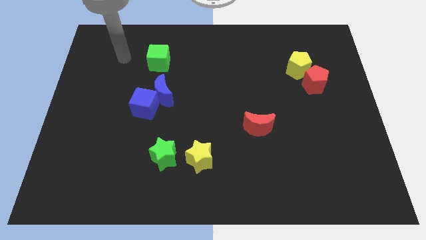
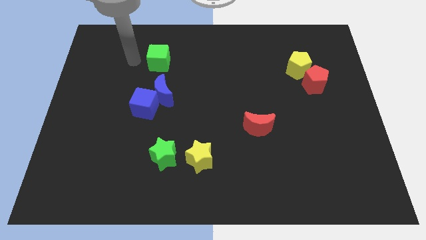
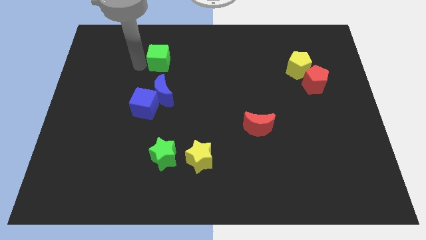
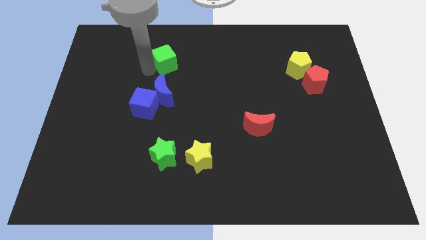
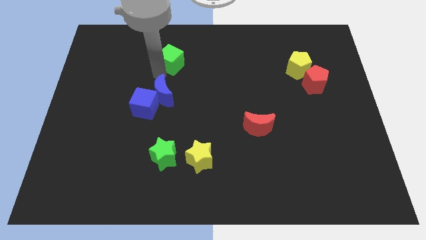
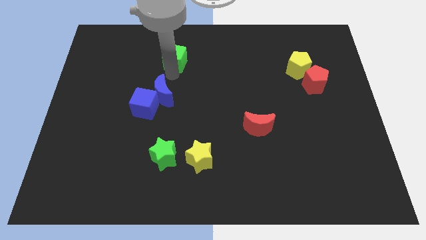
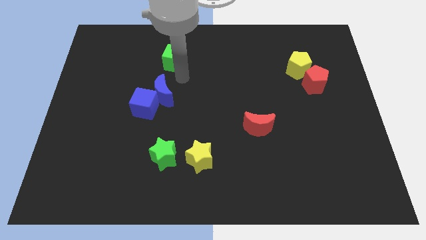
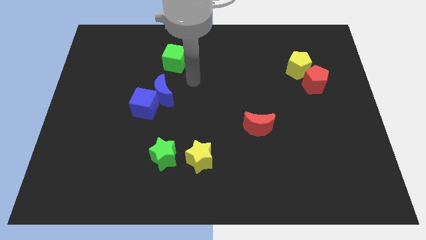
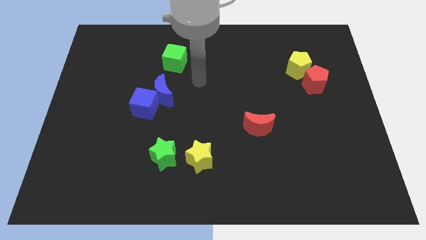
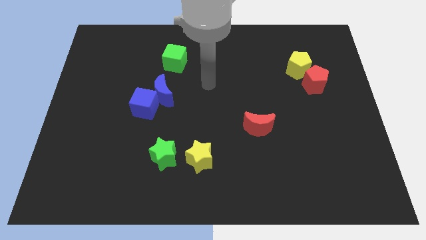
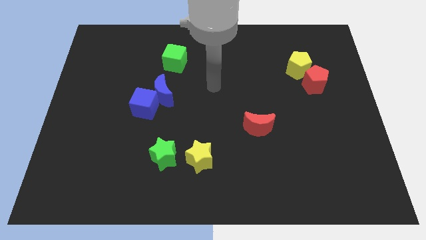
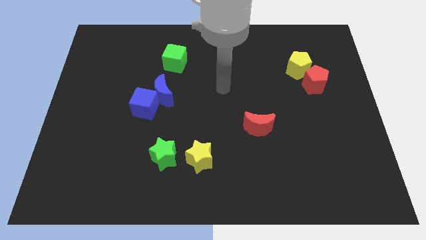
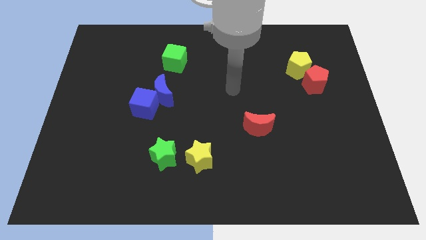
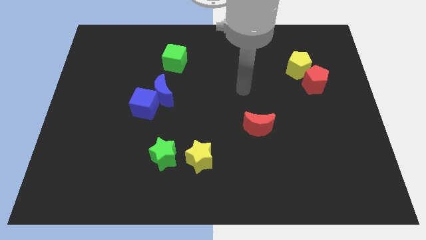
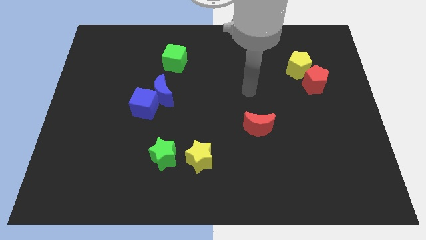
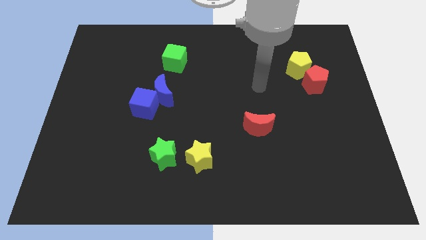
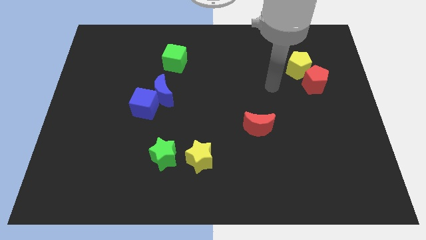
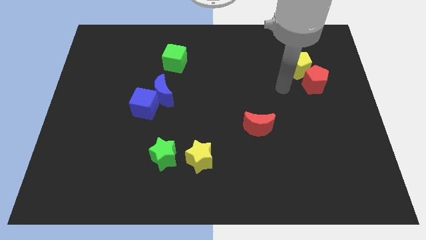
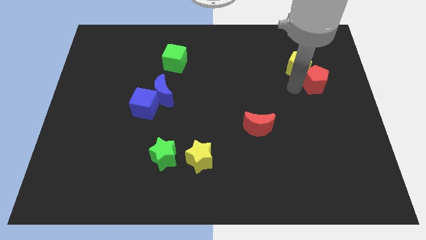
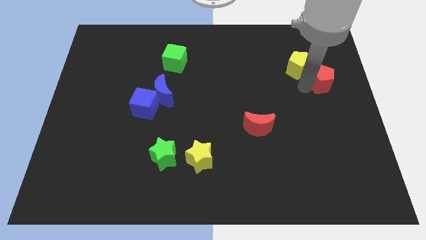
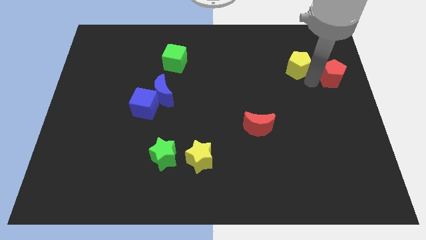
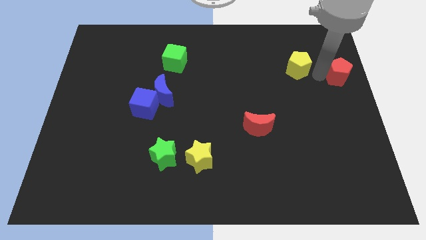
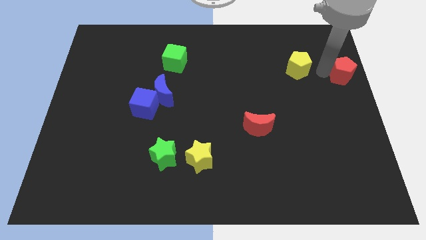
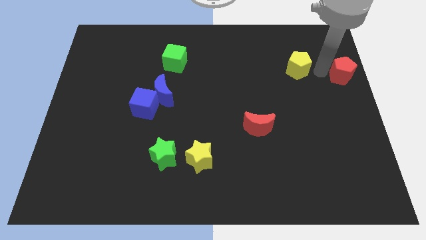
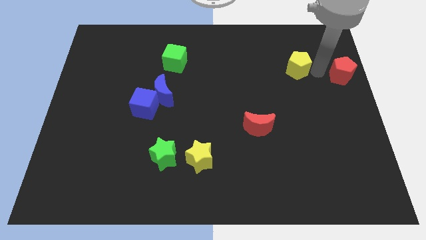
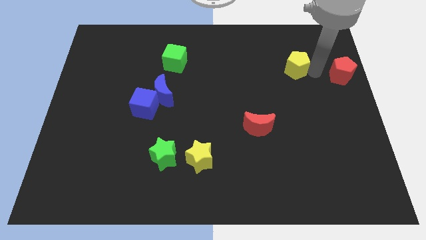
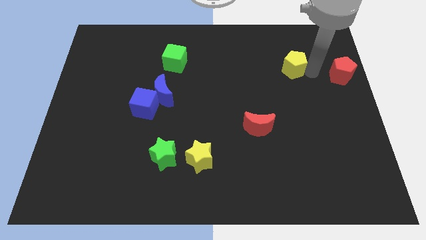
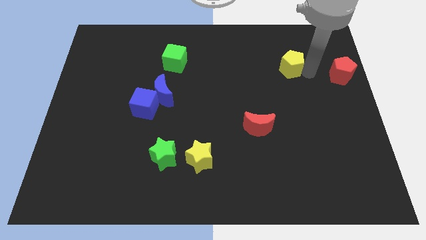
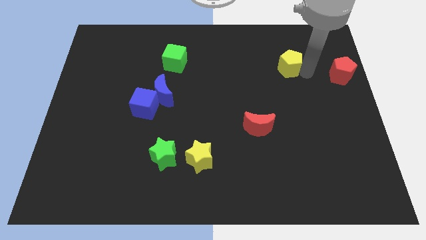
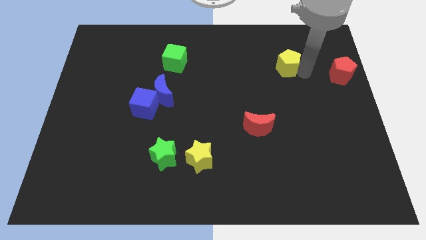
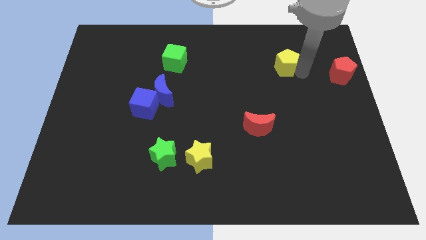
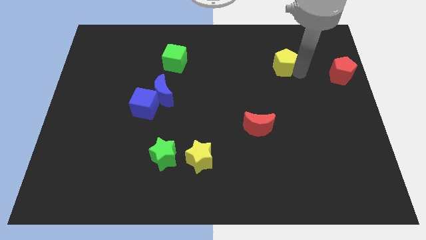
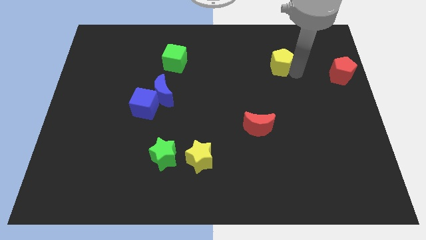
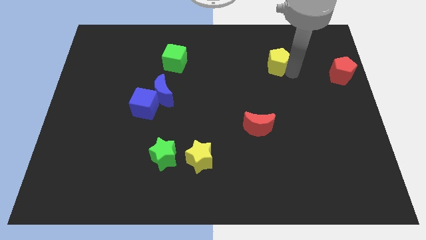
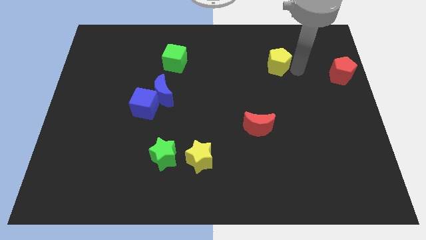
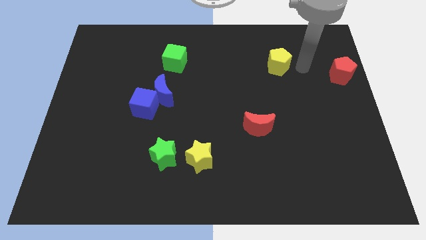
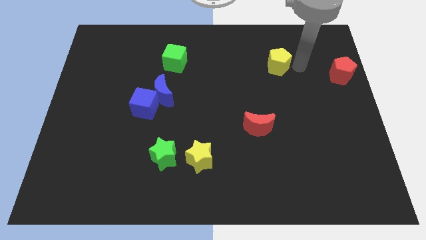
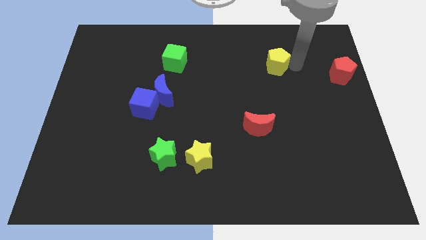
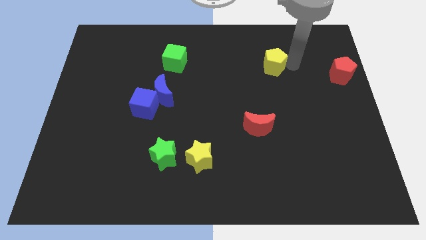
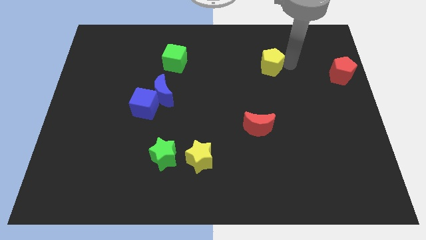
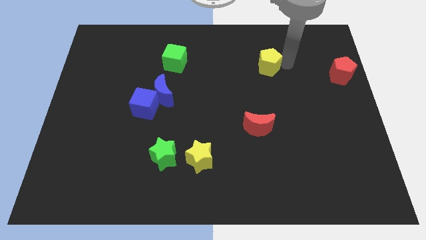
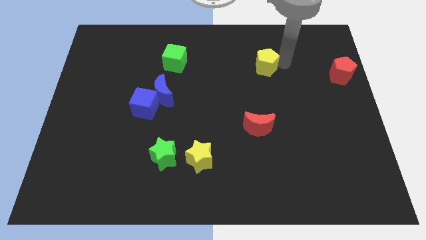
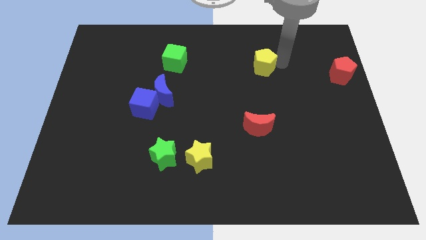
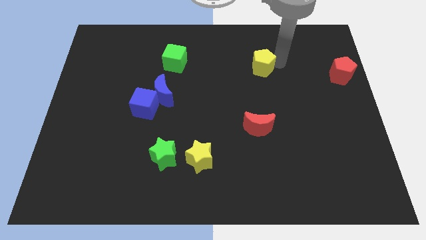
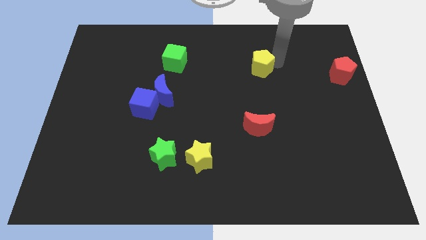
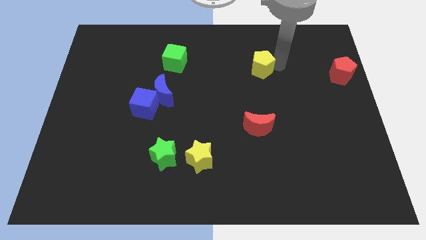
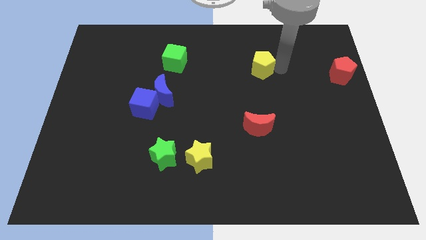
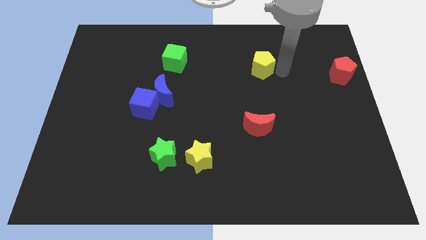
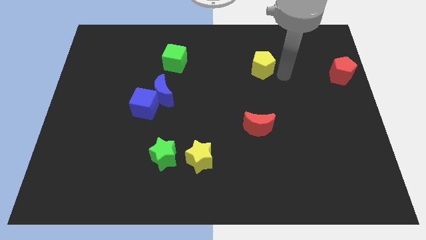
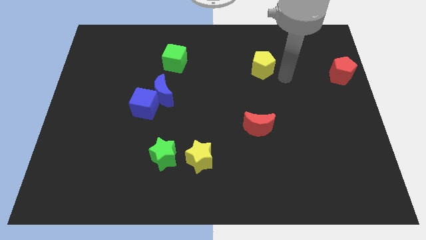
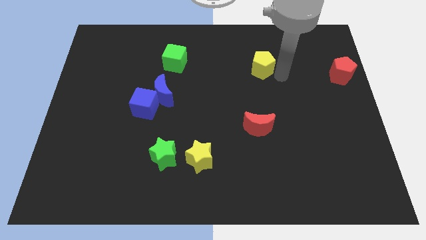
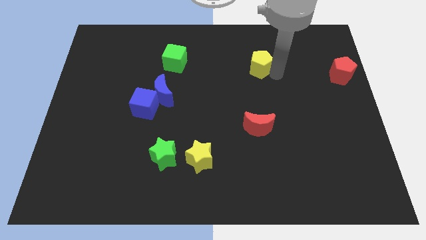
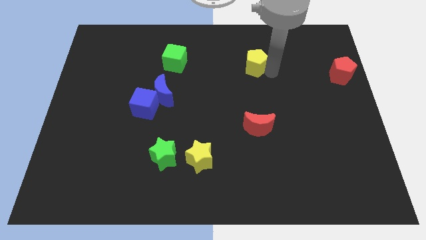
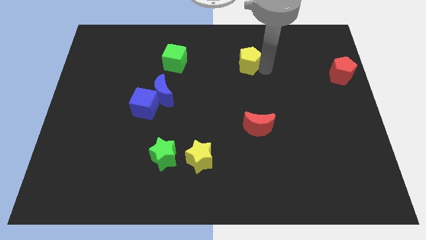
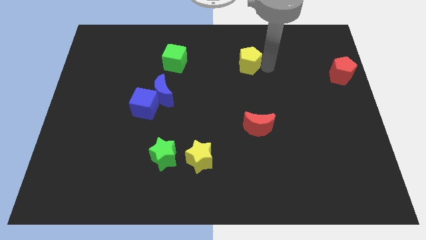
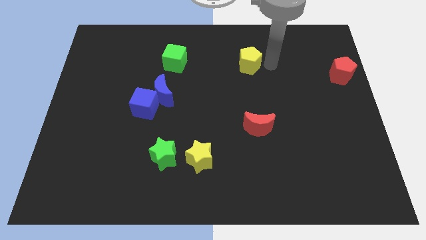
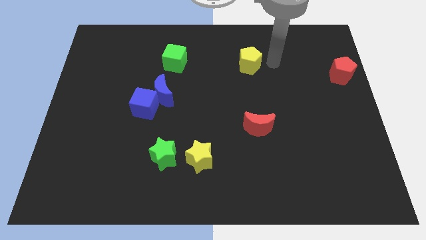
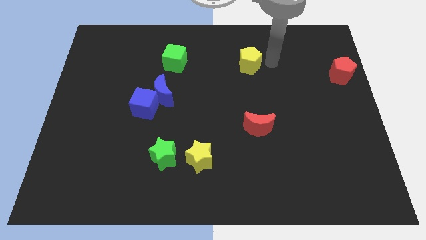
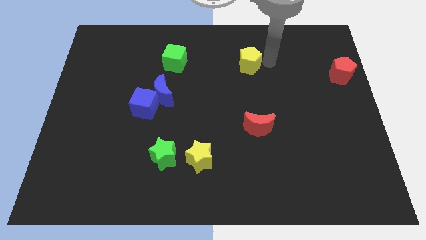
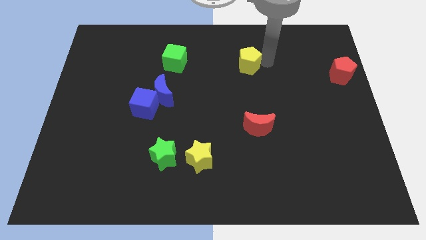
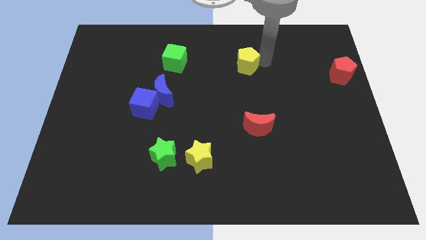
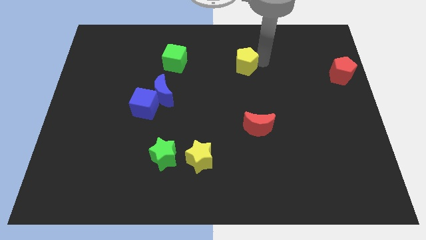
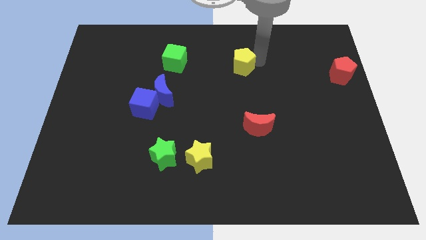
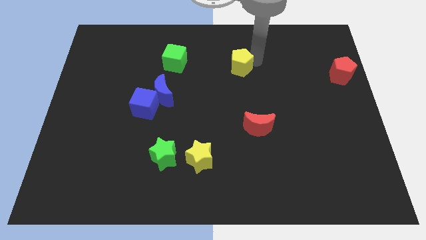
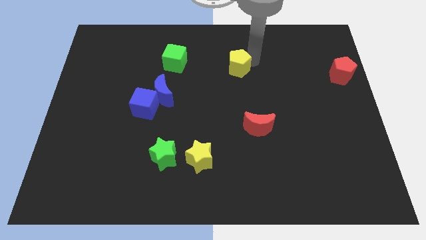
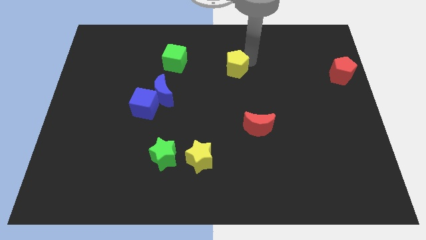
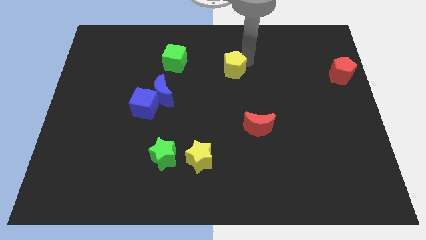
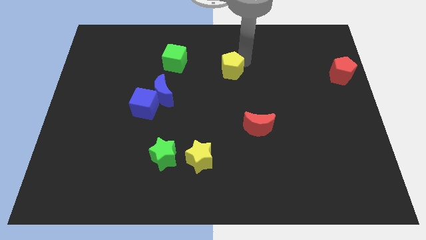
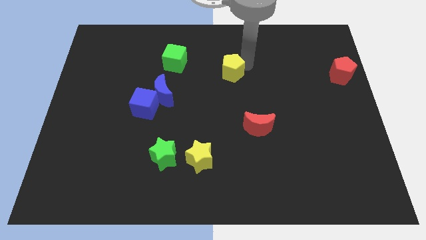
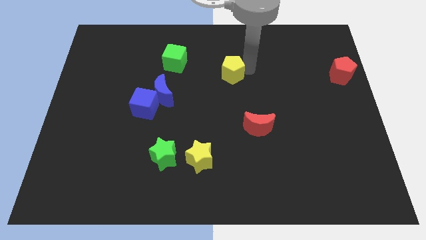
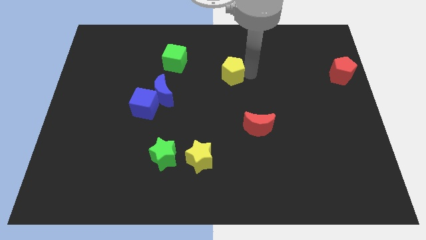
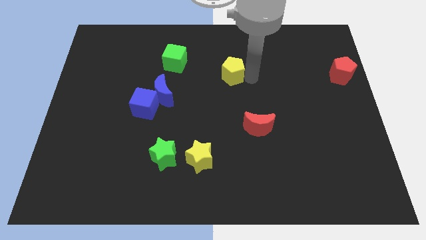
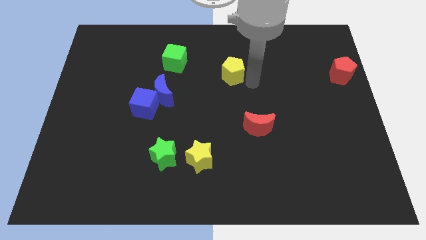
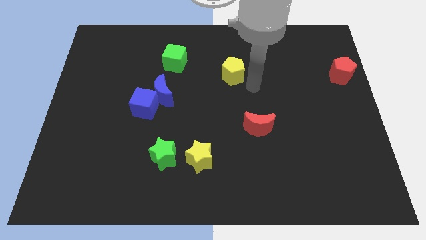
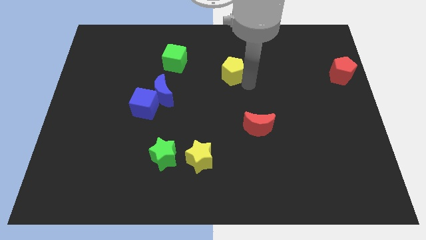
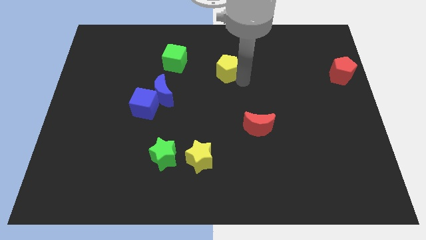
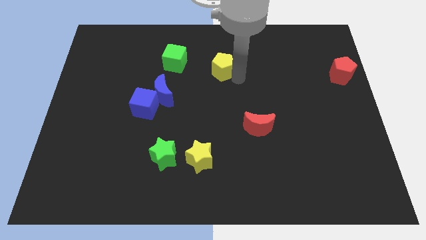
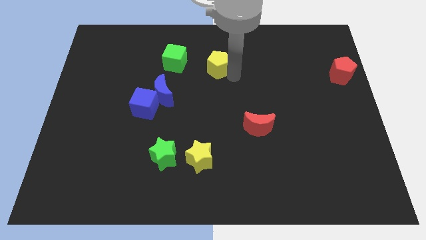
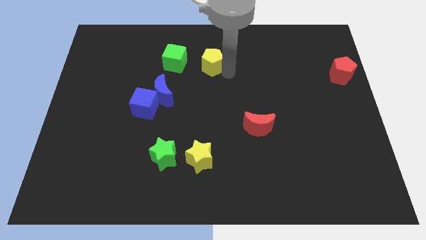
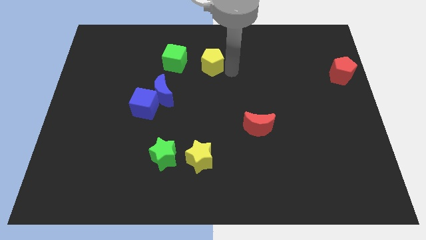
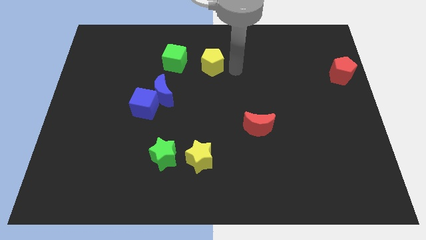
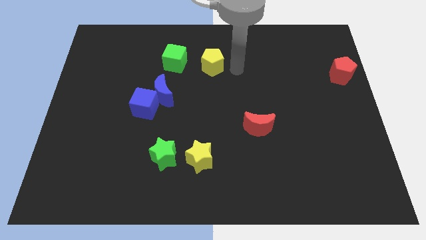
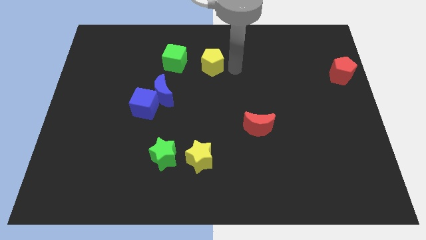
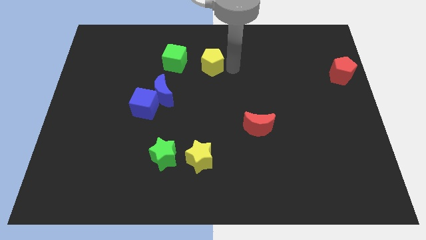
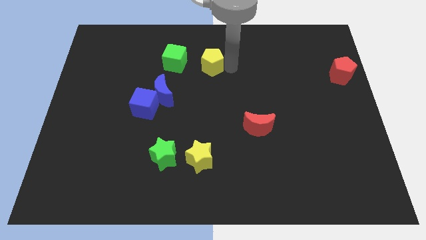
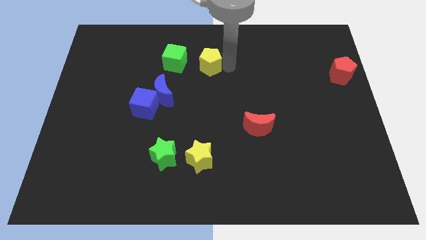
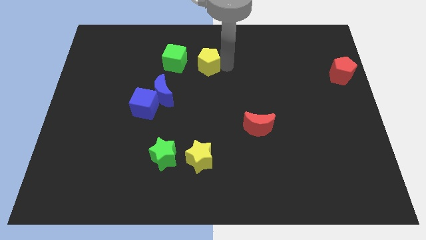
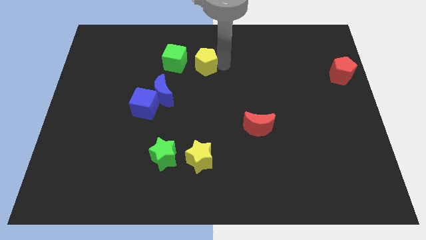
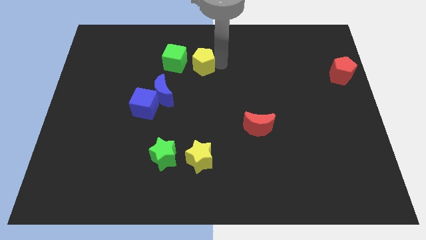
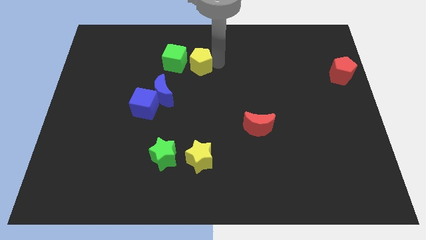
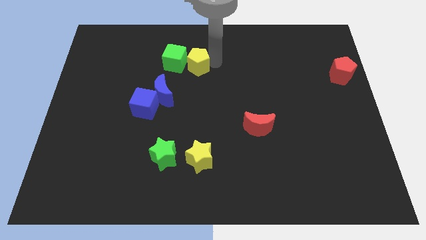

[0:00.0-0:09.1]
push the yellow pentagon to the green cube
